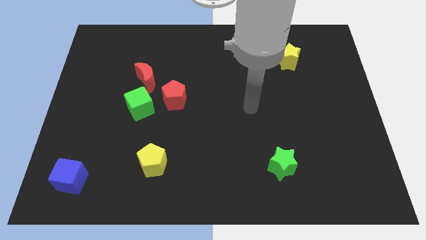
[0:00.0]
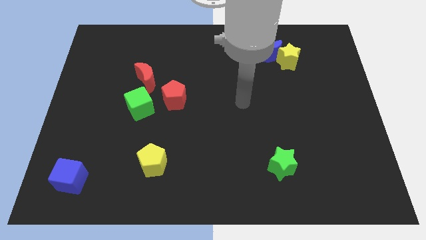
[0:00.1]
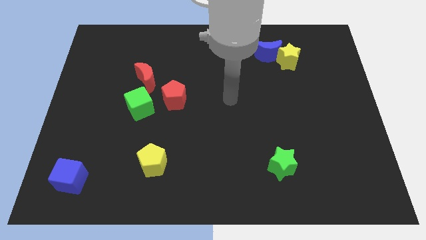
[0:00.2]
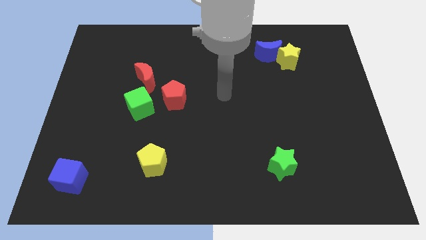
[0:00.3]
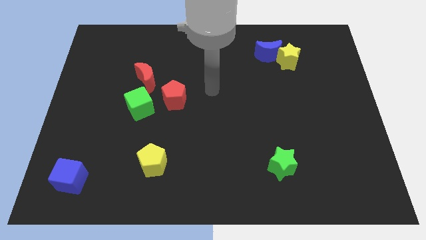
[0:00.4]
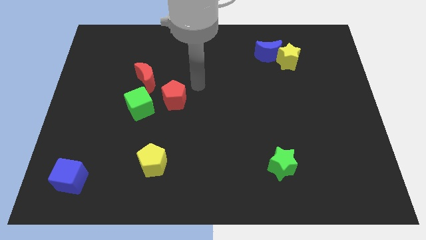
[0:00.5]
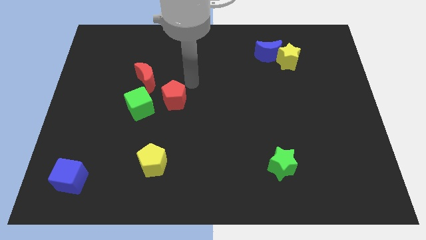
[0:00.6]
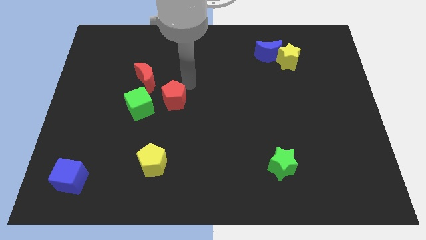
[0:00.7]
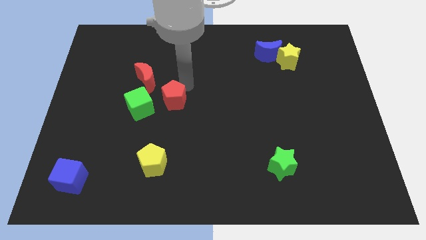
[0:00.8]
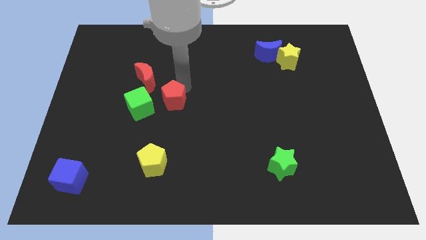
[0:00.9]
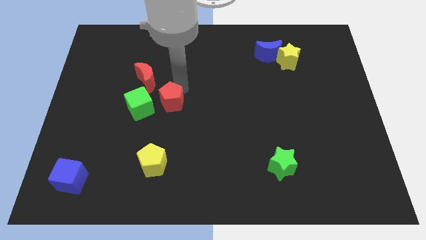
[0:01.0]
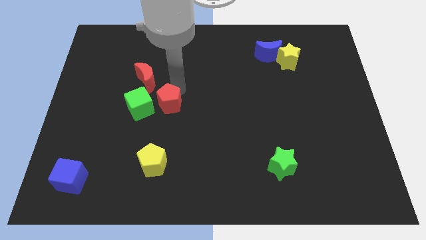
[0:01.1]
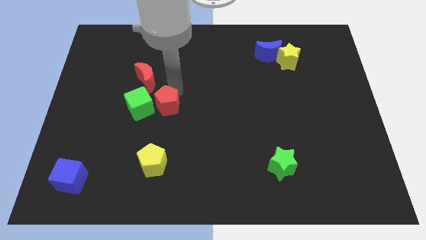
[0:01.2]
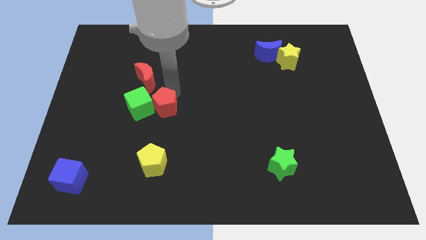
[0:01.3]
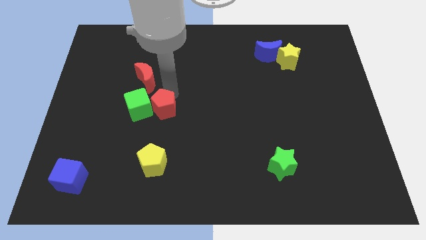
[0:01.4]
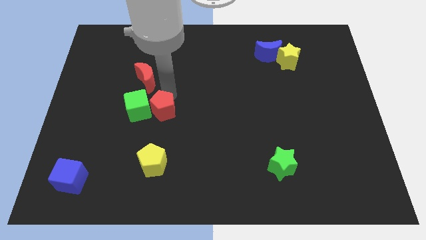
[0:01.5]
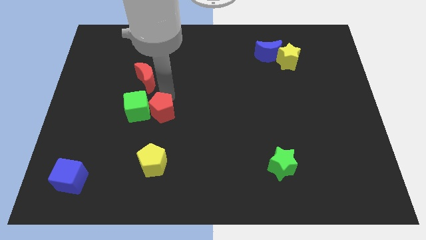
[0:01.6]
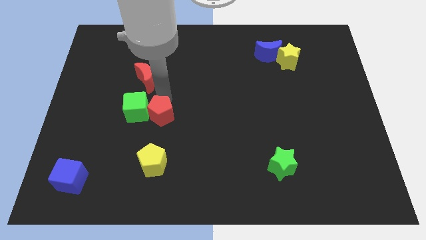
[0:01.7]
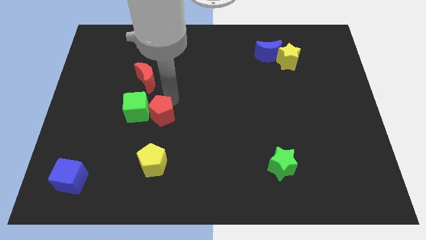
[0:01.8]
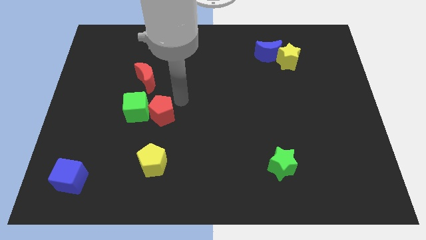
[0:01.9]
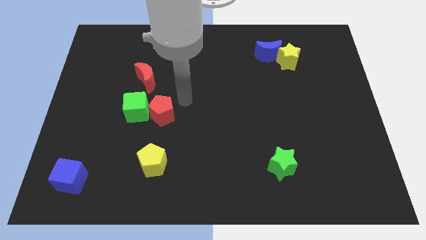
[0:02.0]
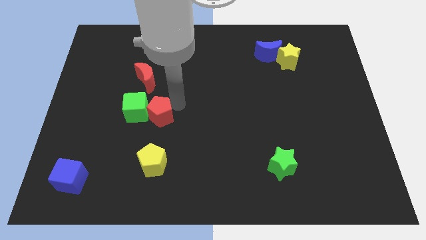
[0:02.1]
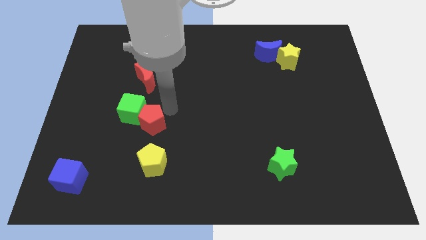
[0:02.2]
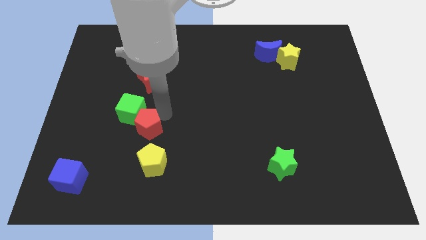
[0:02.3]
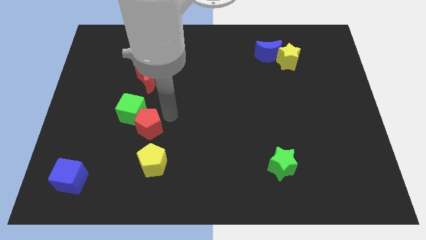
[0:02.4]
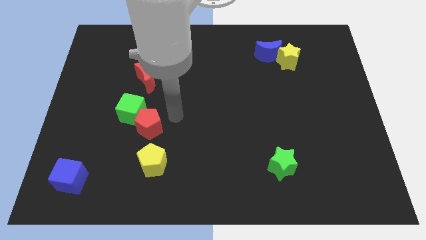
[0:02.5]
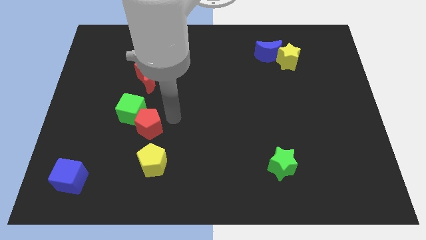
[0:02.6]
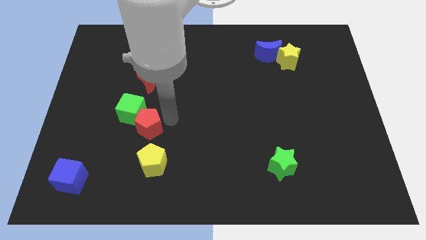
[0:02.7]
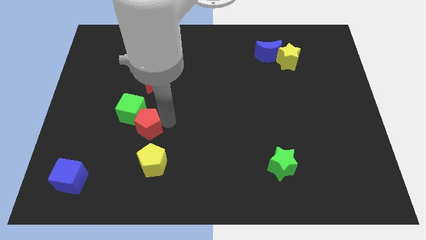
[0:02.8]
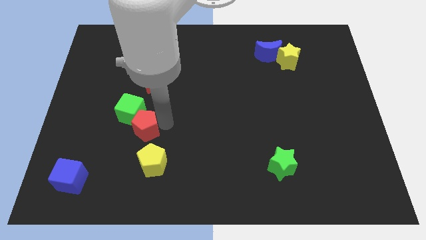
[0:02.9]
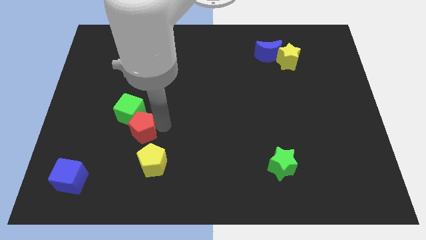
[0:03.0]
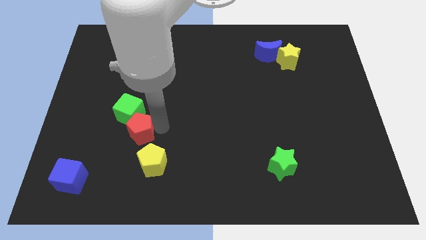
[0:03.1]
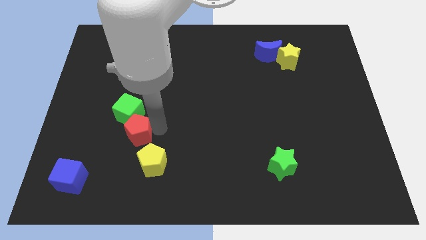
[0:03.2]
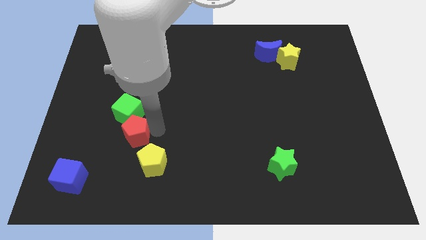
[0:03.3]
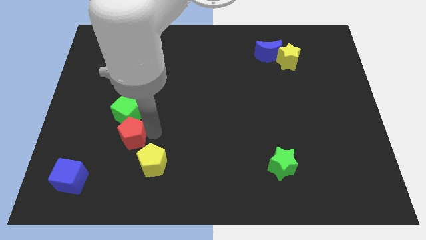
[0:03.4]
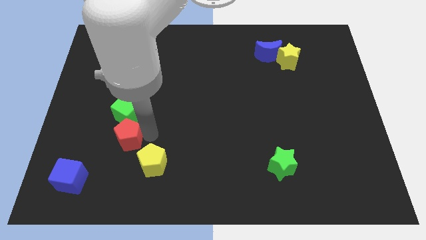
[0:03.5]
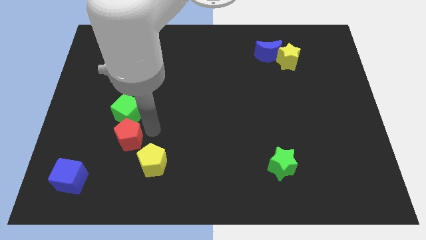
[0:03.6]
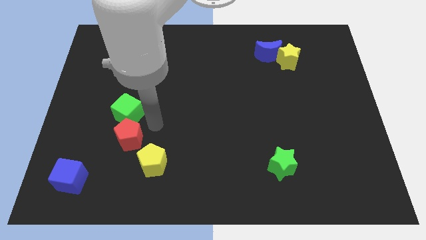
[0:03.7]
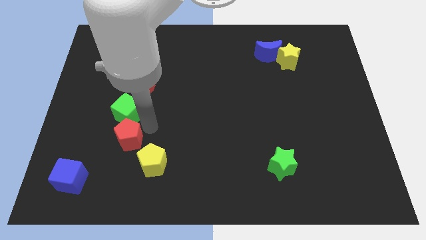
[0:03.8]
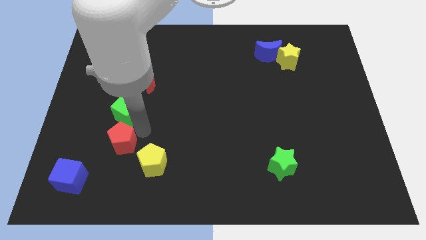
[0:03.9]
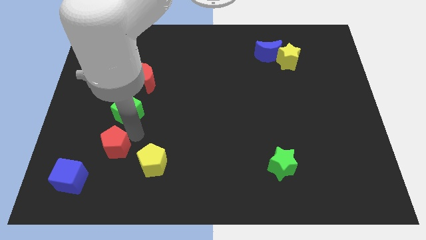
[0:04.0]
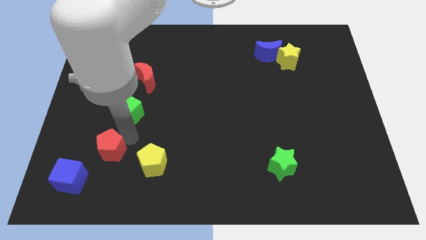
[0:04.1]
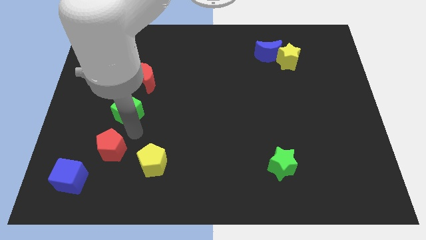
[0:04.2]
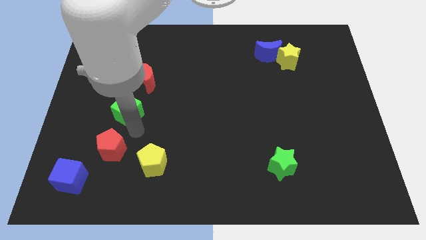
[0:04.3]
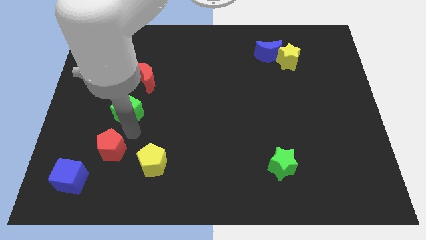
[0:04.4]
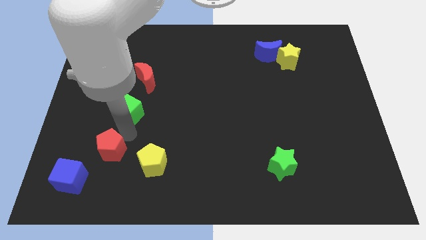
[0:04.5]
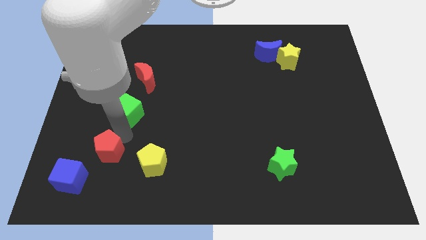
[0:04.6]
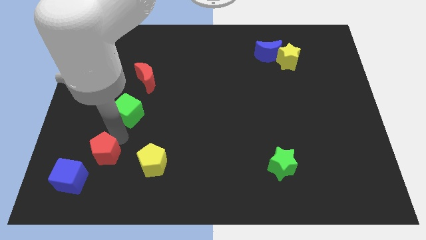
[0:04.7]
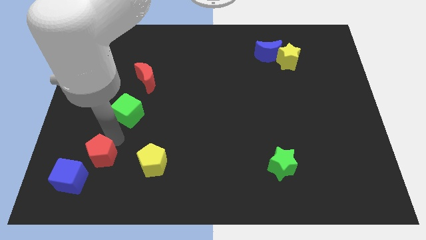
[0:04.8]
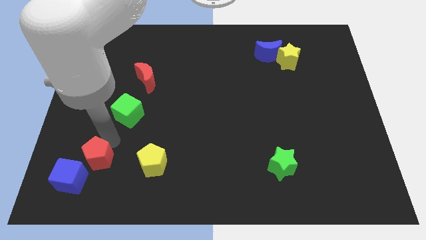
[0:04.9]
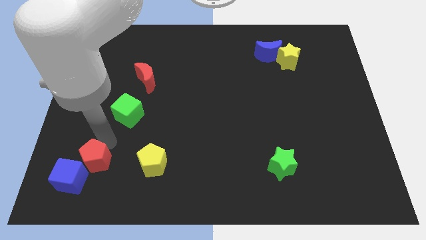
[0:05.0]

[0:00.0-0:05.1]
move the red pentagon next to the blue cube

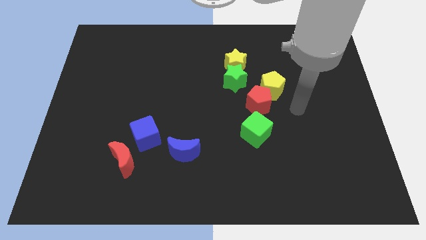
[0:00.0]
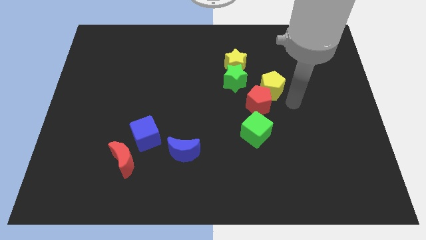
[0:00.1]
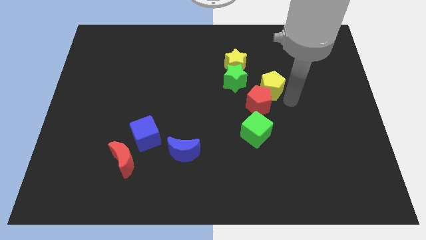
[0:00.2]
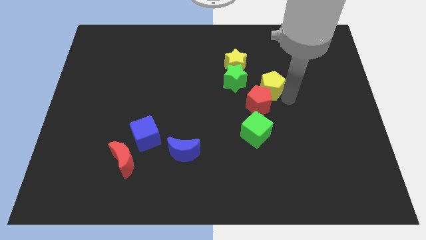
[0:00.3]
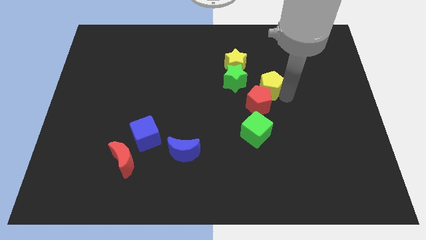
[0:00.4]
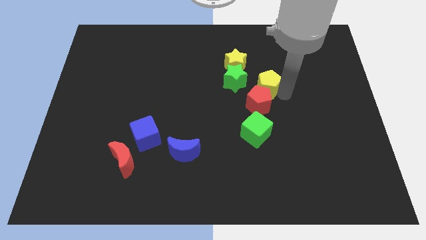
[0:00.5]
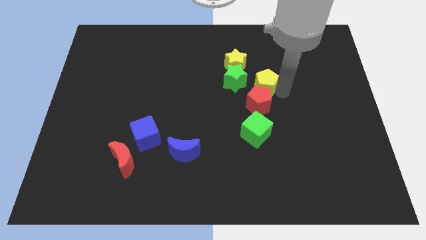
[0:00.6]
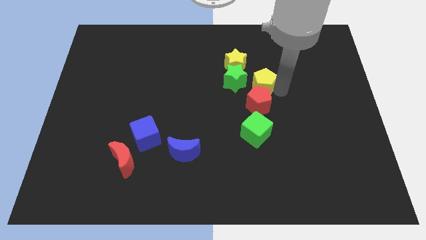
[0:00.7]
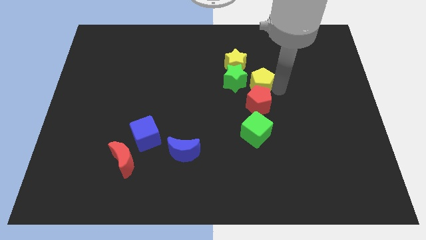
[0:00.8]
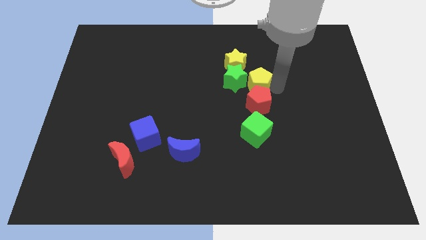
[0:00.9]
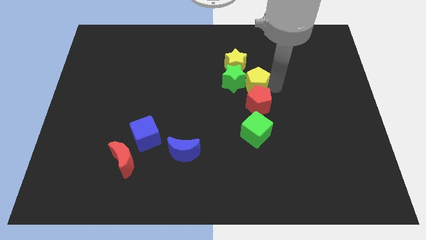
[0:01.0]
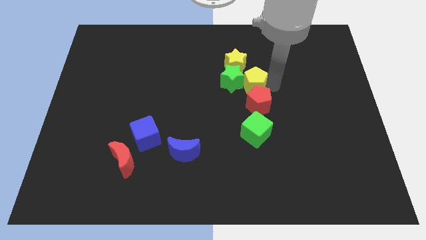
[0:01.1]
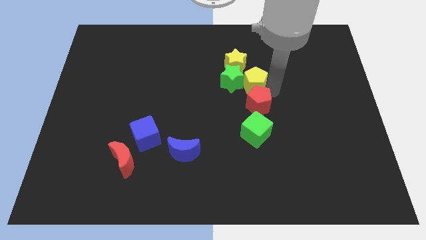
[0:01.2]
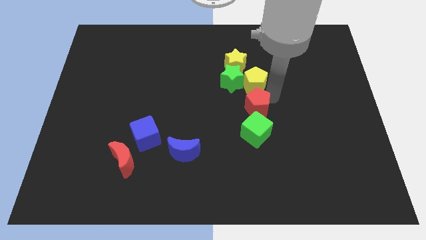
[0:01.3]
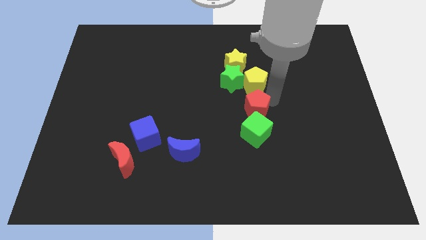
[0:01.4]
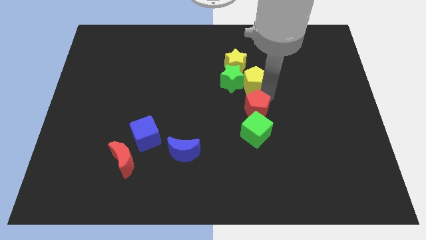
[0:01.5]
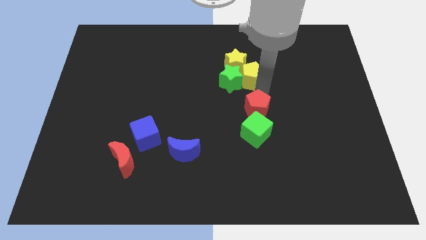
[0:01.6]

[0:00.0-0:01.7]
move the yellow pentagon to the yellow star
